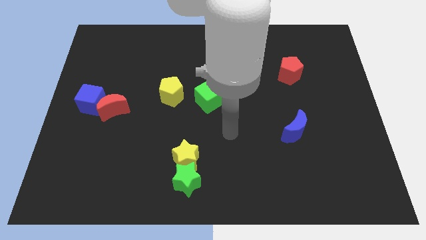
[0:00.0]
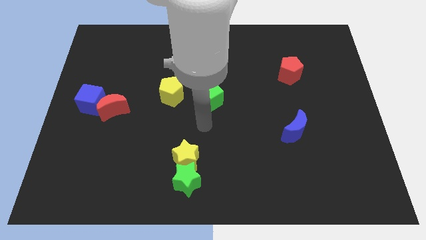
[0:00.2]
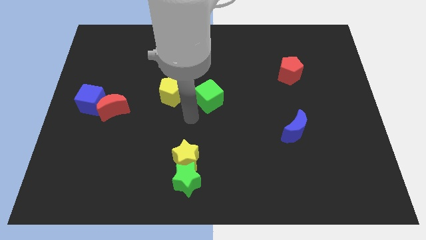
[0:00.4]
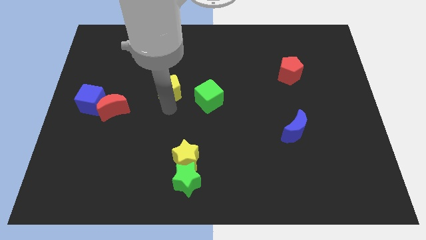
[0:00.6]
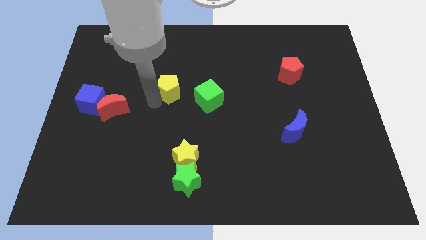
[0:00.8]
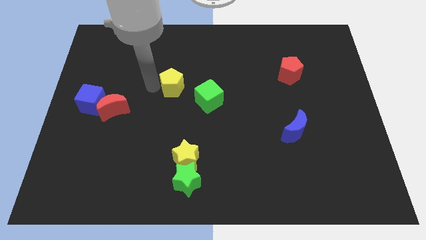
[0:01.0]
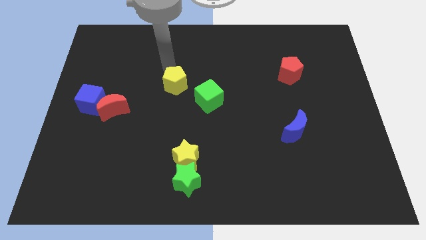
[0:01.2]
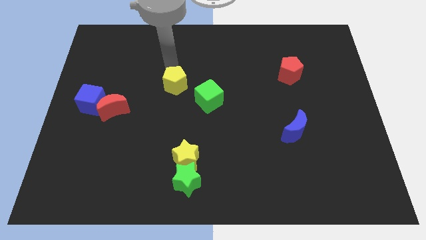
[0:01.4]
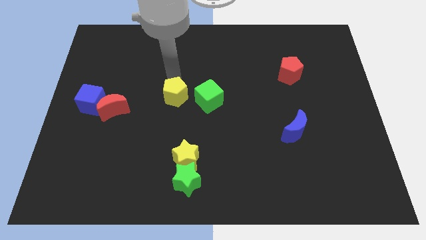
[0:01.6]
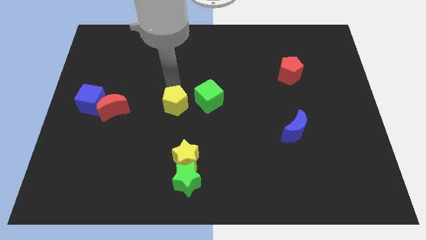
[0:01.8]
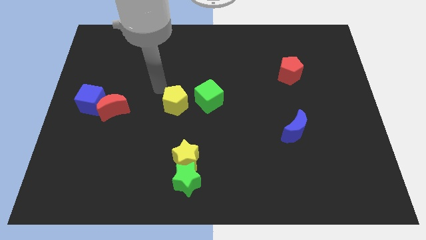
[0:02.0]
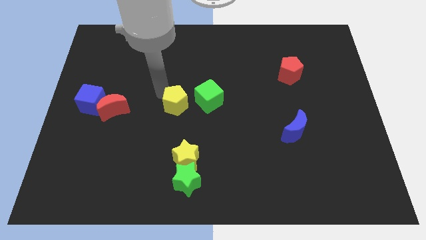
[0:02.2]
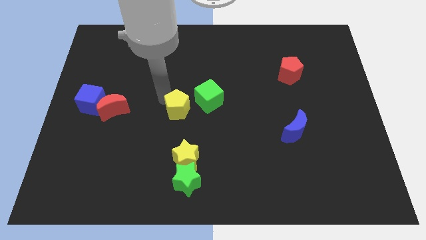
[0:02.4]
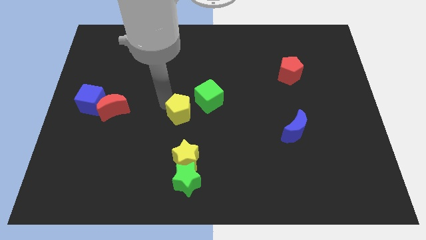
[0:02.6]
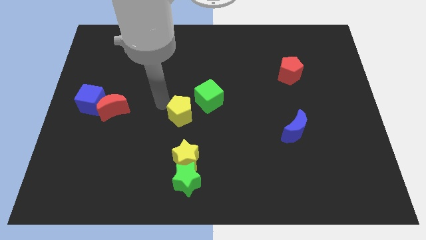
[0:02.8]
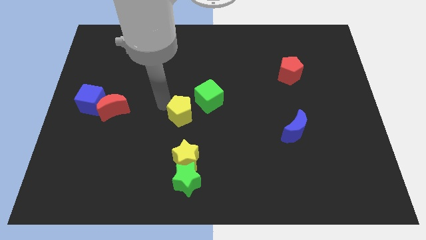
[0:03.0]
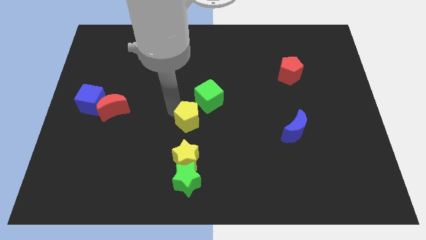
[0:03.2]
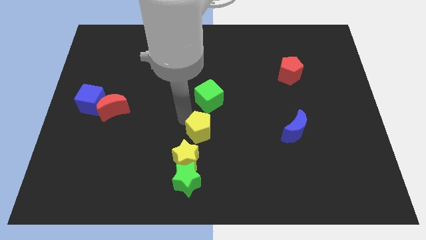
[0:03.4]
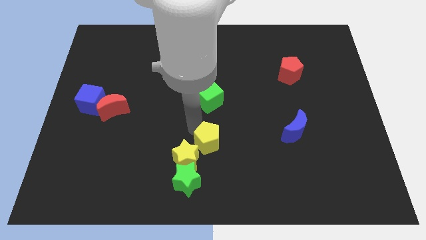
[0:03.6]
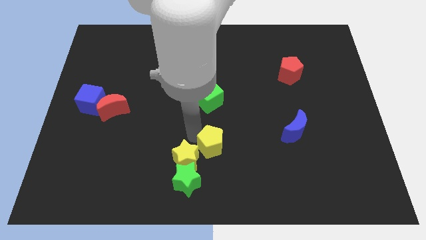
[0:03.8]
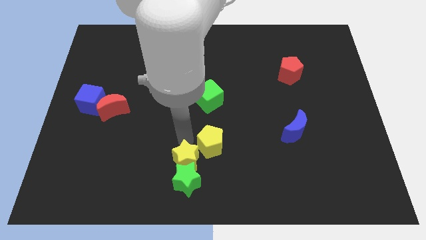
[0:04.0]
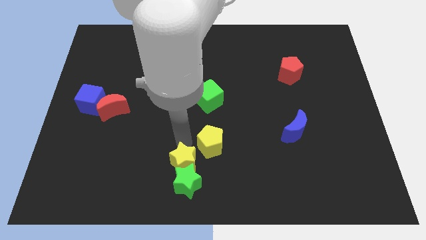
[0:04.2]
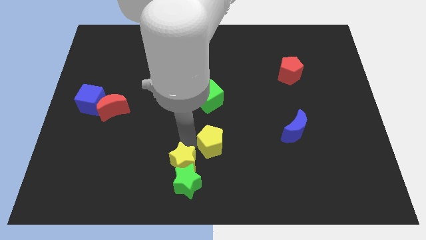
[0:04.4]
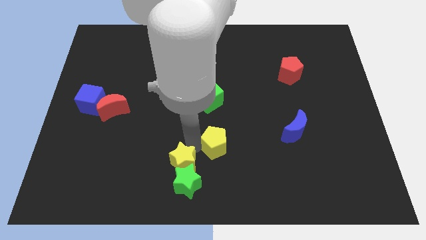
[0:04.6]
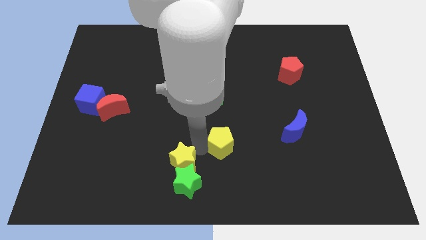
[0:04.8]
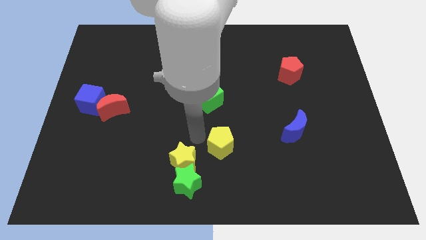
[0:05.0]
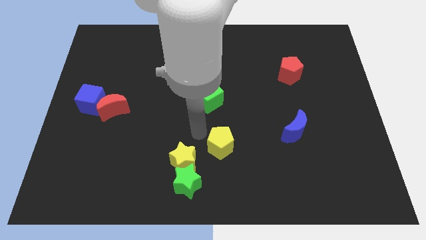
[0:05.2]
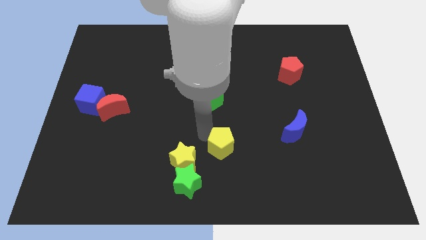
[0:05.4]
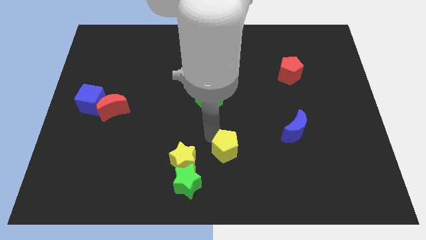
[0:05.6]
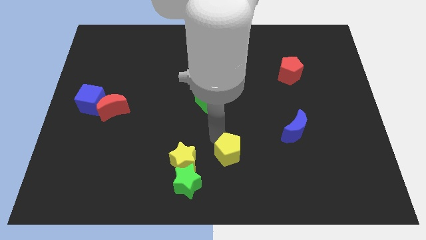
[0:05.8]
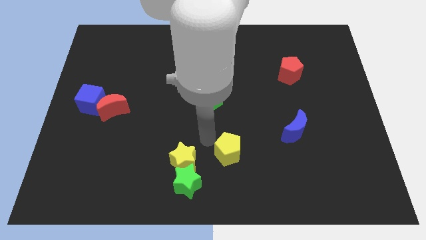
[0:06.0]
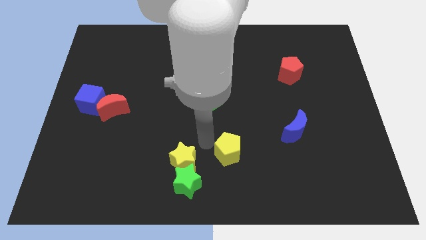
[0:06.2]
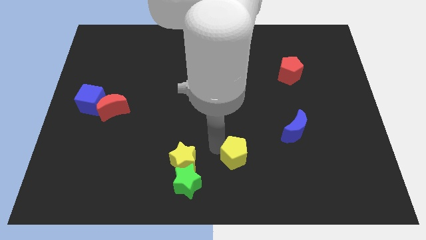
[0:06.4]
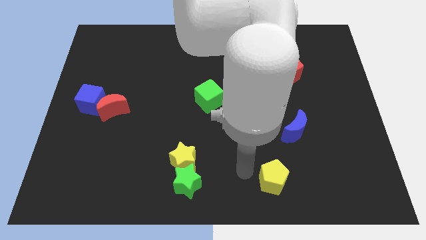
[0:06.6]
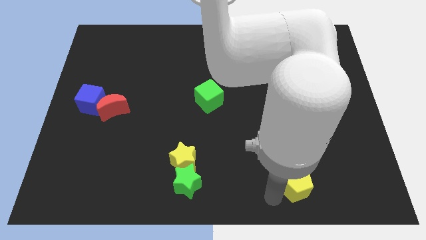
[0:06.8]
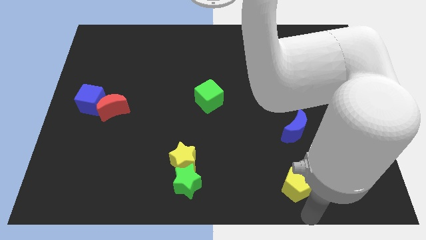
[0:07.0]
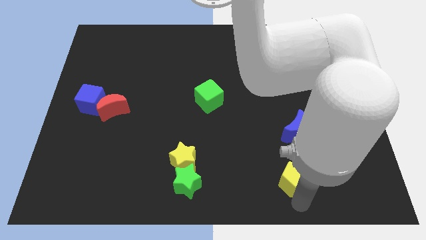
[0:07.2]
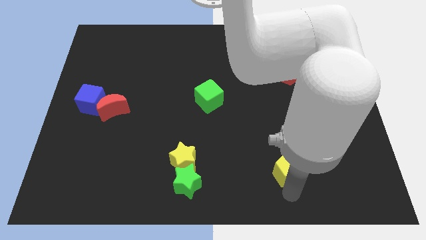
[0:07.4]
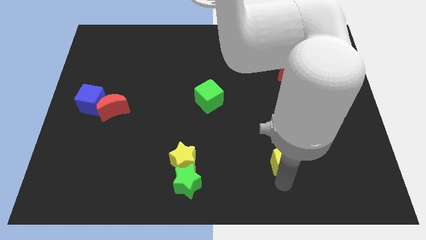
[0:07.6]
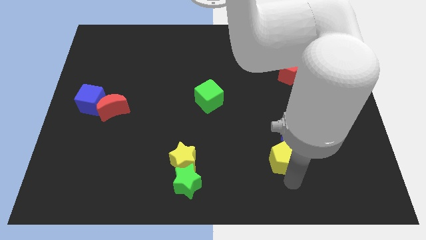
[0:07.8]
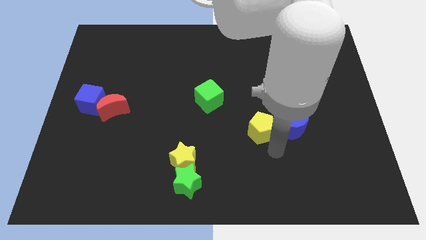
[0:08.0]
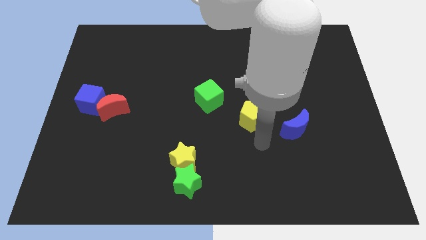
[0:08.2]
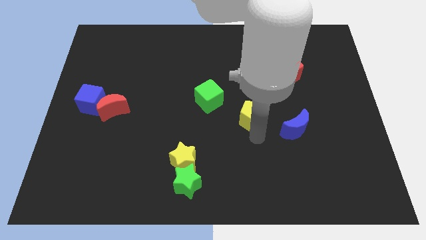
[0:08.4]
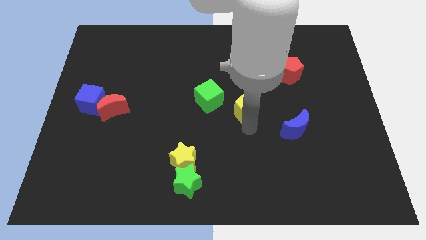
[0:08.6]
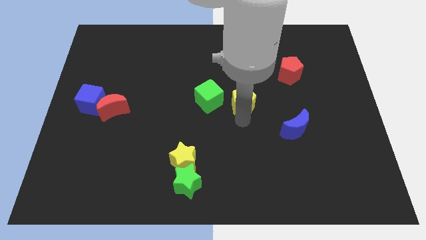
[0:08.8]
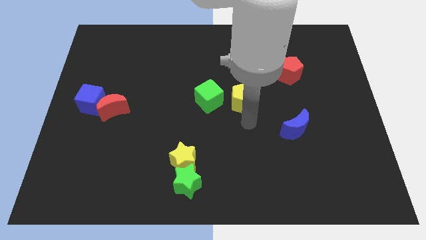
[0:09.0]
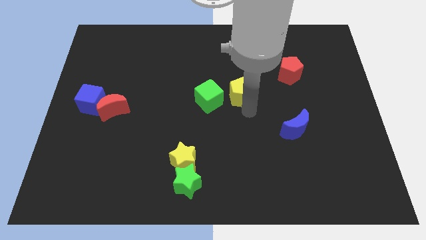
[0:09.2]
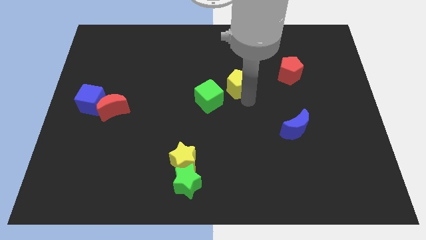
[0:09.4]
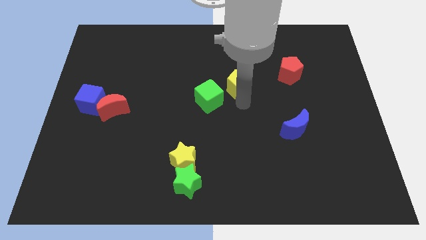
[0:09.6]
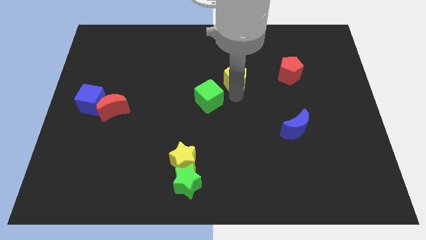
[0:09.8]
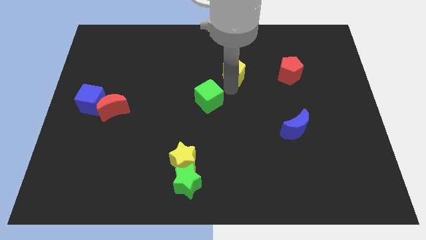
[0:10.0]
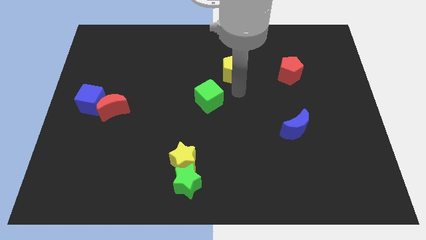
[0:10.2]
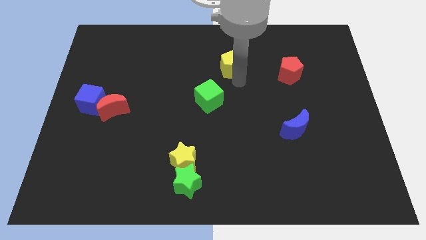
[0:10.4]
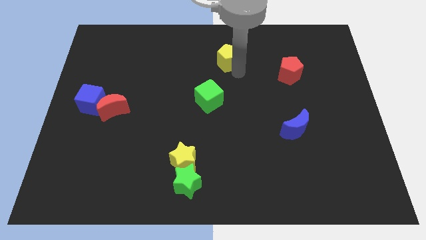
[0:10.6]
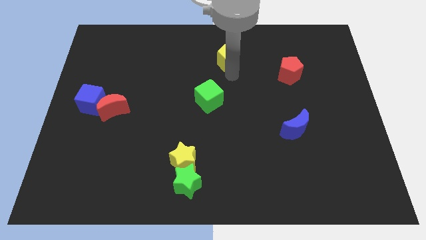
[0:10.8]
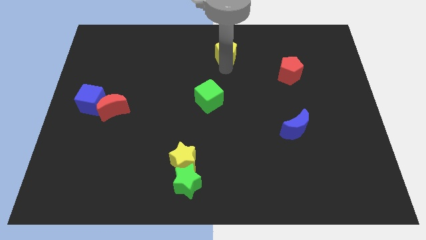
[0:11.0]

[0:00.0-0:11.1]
move the yellow pentagon to the top

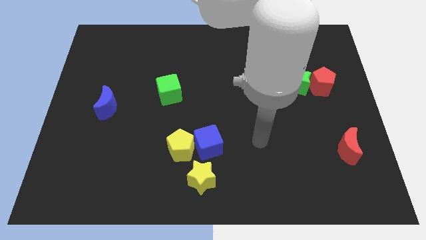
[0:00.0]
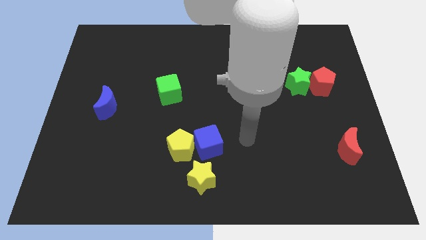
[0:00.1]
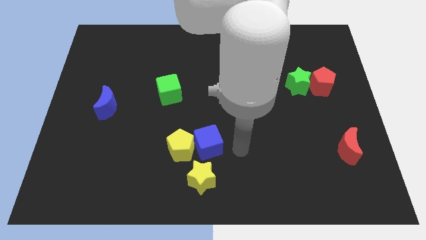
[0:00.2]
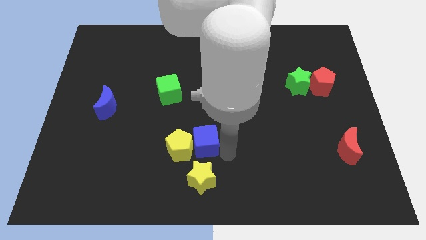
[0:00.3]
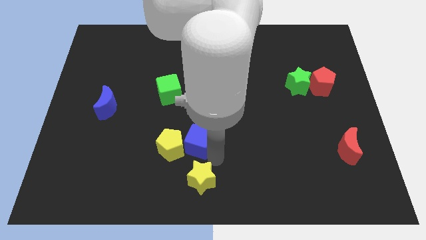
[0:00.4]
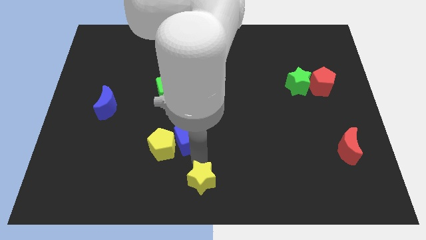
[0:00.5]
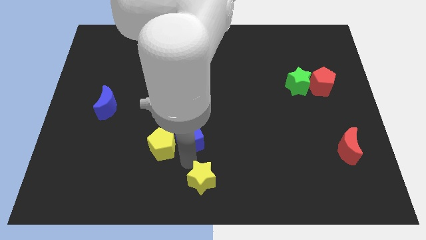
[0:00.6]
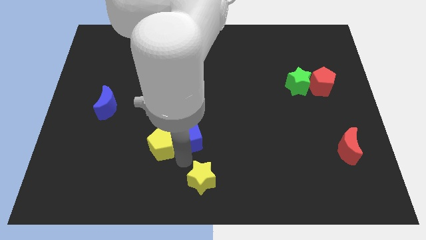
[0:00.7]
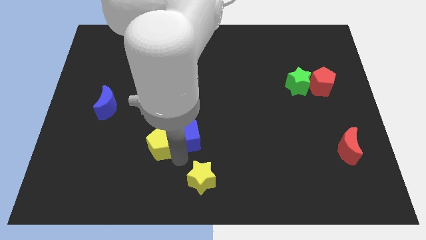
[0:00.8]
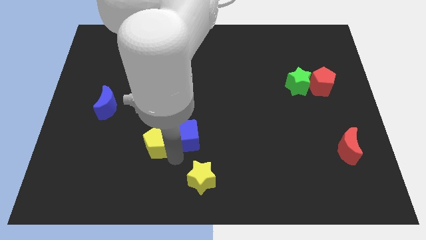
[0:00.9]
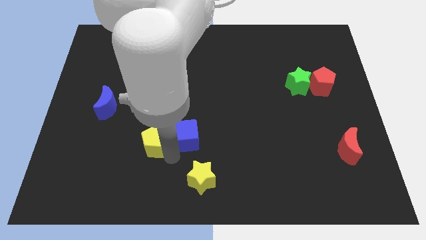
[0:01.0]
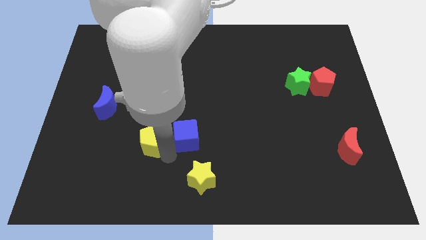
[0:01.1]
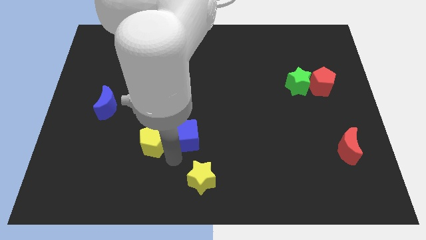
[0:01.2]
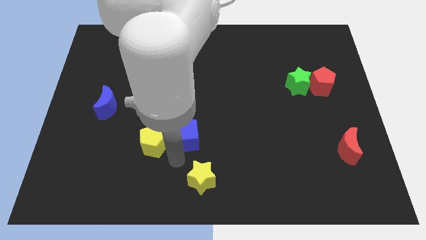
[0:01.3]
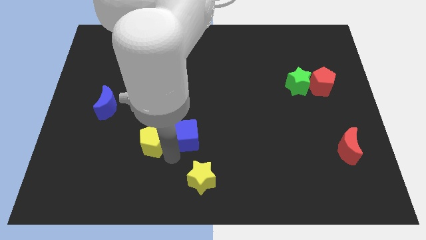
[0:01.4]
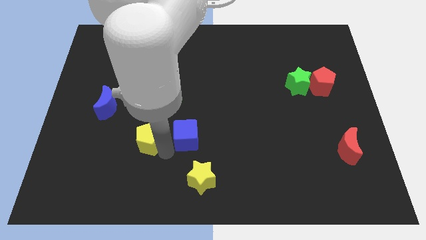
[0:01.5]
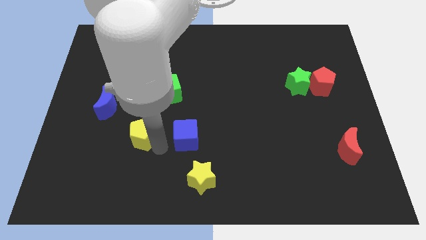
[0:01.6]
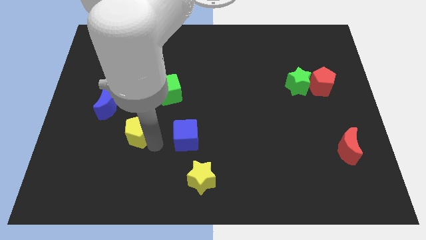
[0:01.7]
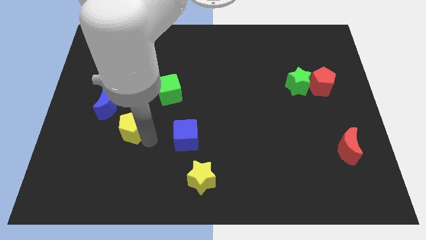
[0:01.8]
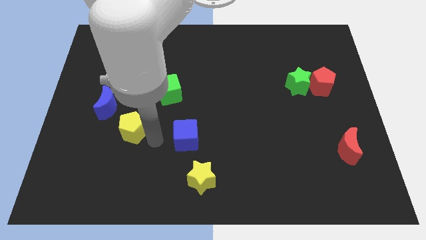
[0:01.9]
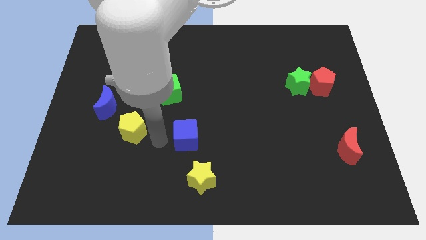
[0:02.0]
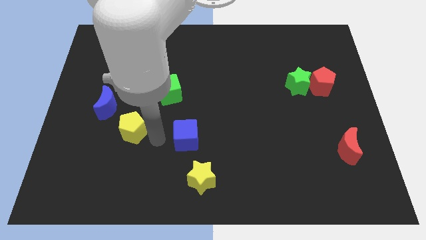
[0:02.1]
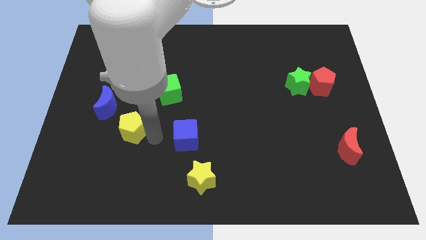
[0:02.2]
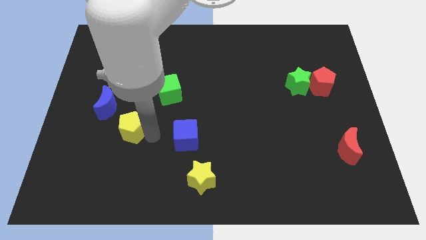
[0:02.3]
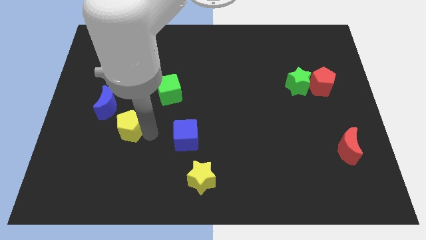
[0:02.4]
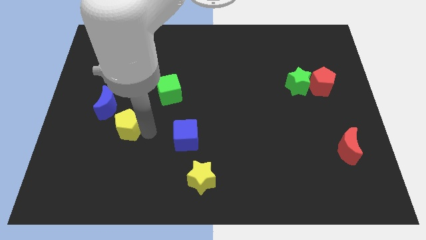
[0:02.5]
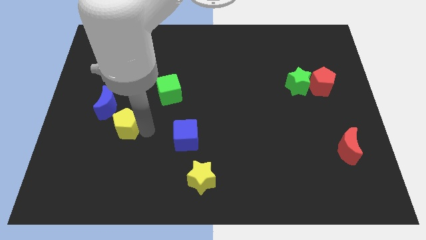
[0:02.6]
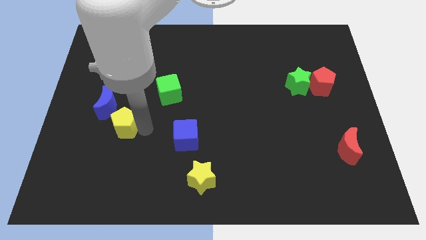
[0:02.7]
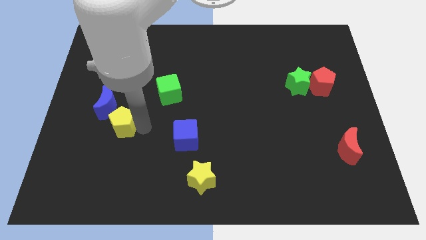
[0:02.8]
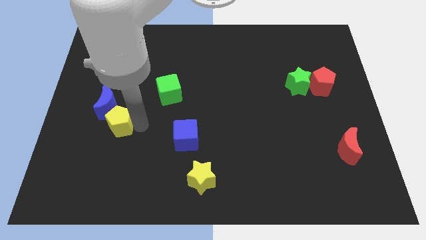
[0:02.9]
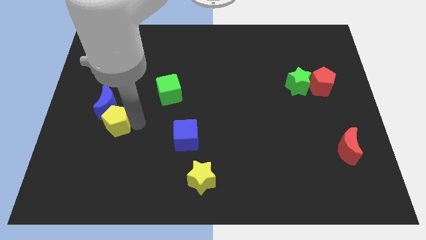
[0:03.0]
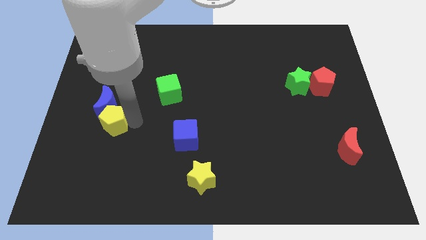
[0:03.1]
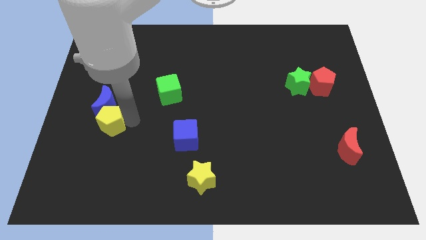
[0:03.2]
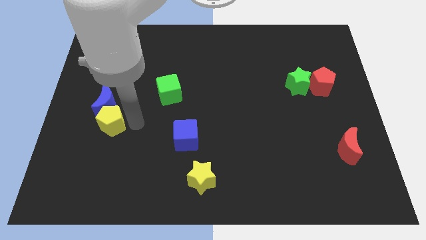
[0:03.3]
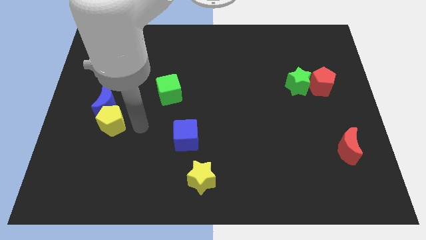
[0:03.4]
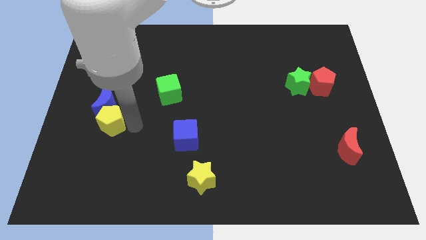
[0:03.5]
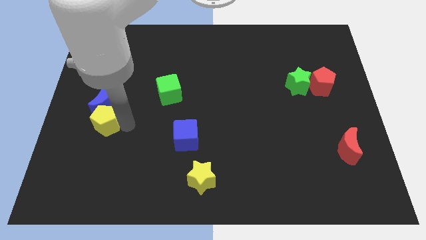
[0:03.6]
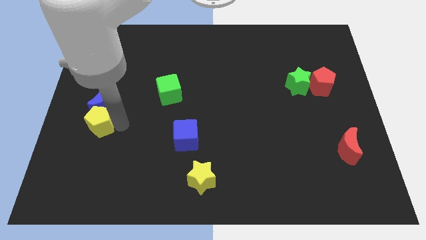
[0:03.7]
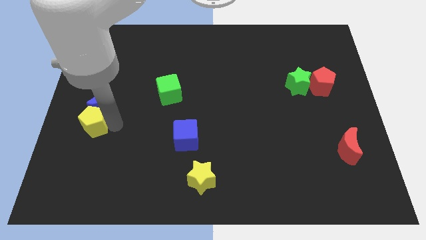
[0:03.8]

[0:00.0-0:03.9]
move the yellow pentagon to the left side of the board
